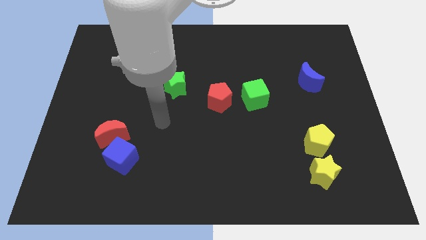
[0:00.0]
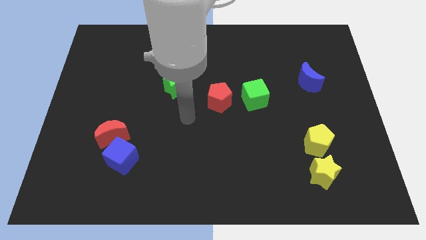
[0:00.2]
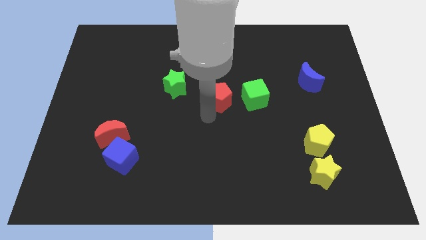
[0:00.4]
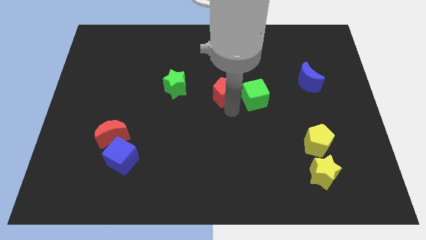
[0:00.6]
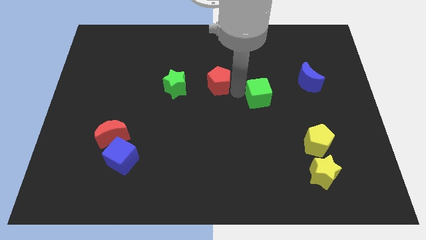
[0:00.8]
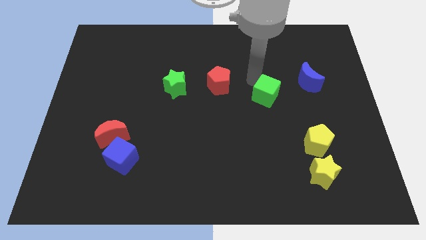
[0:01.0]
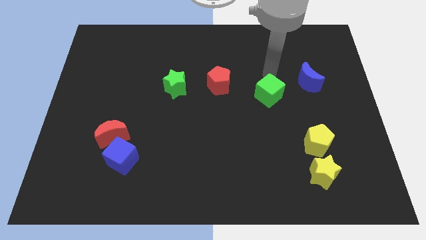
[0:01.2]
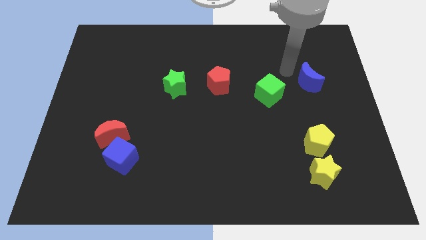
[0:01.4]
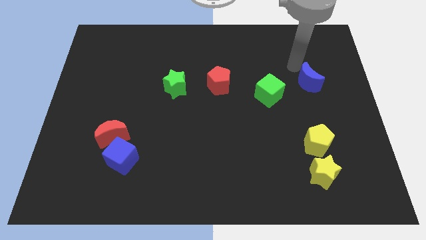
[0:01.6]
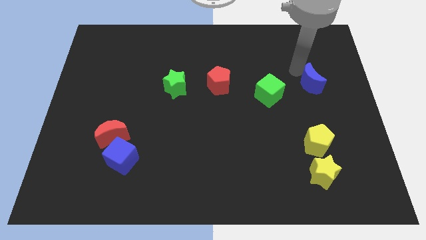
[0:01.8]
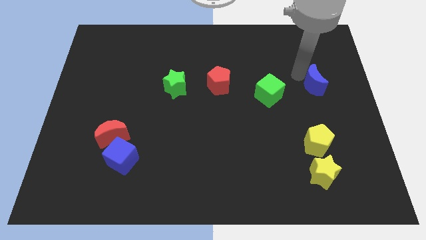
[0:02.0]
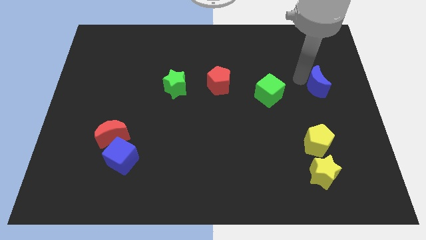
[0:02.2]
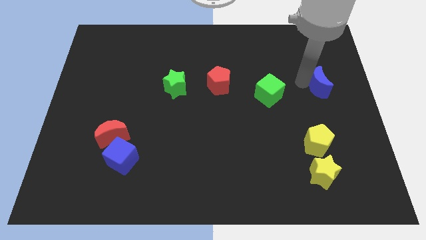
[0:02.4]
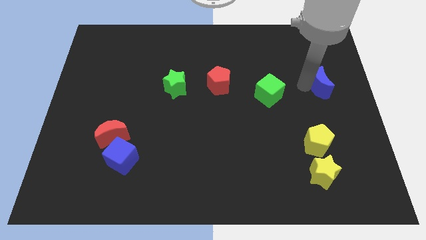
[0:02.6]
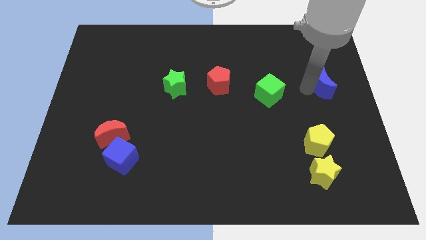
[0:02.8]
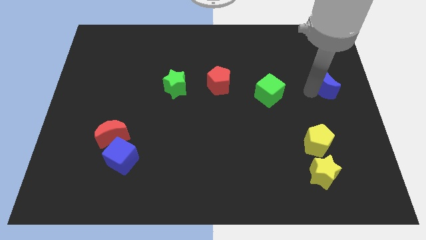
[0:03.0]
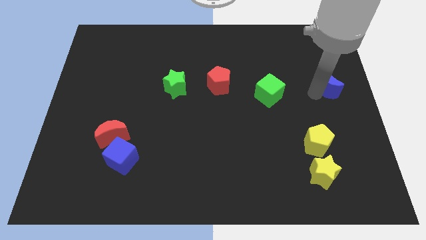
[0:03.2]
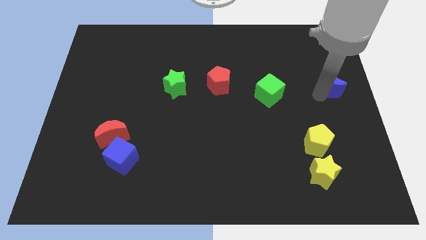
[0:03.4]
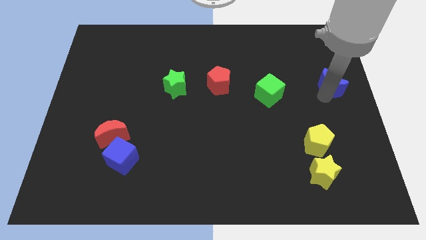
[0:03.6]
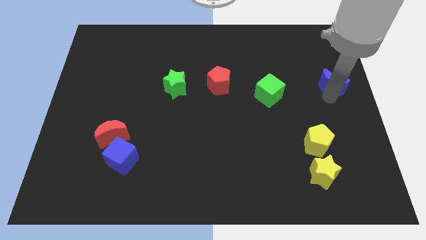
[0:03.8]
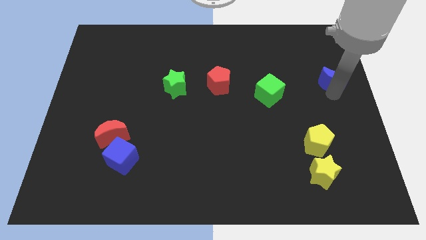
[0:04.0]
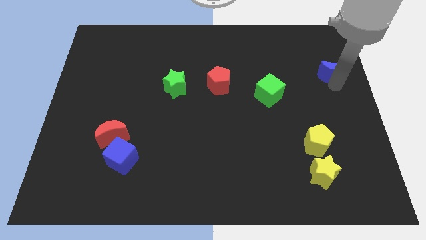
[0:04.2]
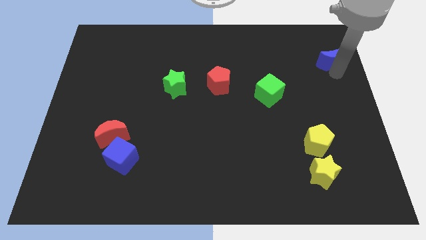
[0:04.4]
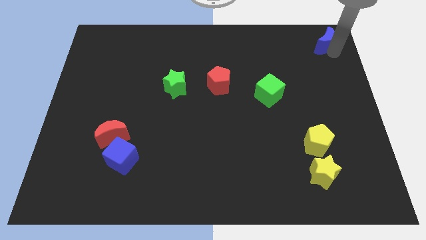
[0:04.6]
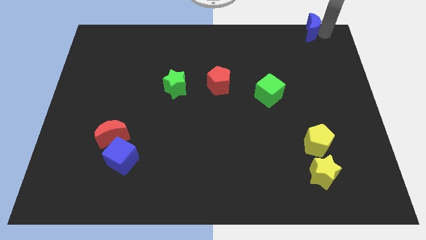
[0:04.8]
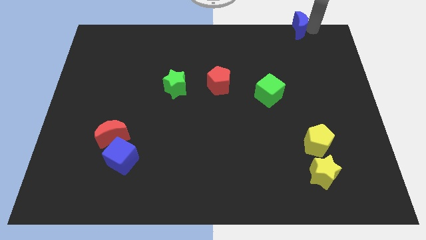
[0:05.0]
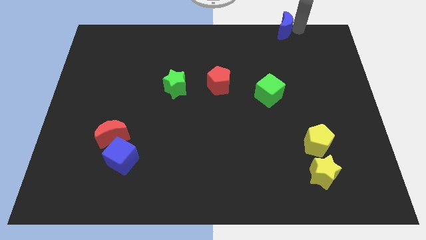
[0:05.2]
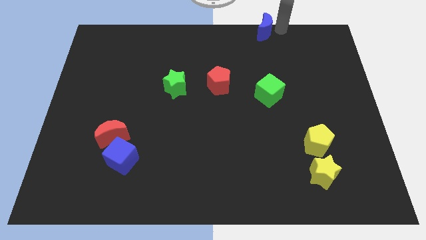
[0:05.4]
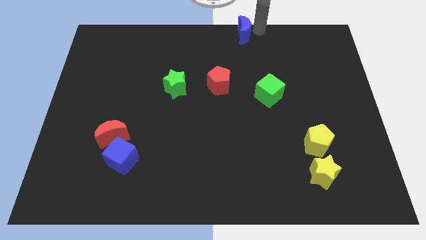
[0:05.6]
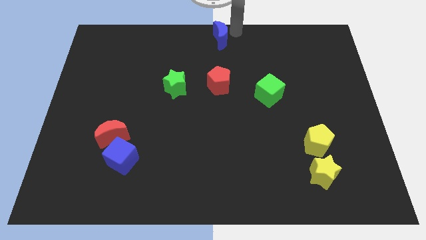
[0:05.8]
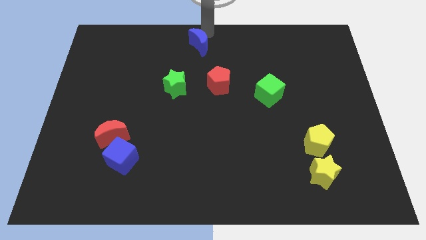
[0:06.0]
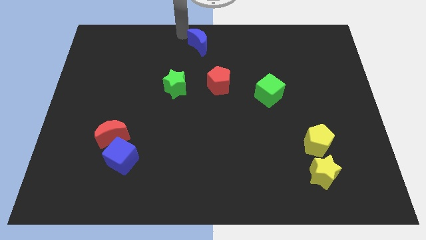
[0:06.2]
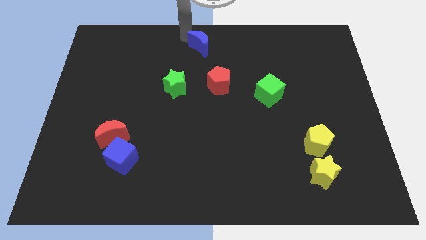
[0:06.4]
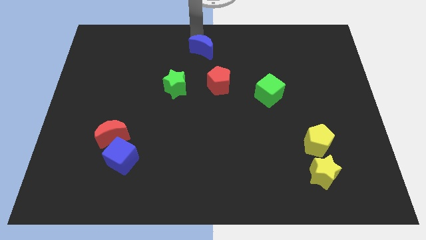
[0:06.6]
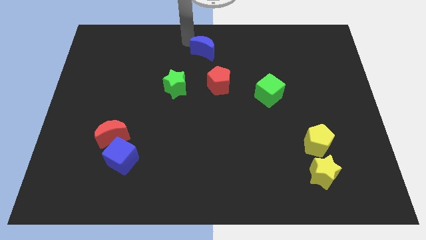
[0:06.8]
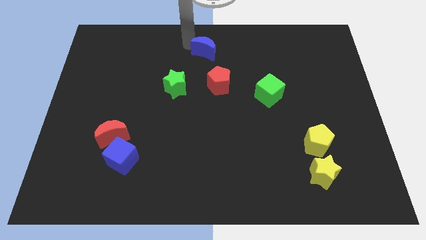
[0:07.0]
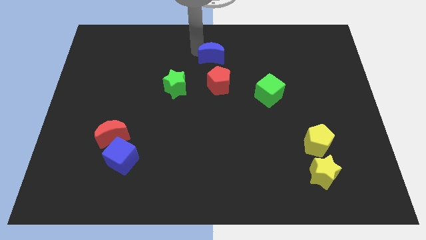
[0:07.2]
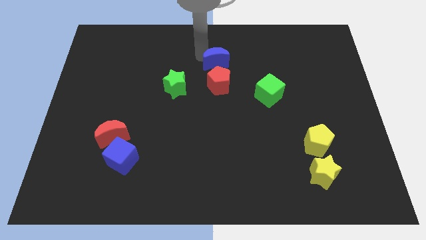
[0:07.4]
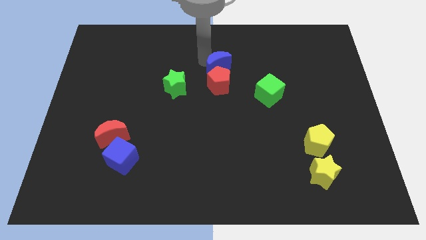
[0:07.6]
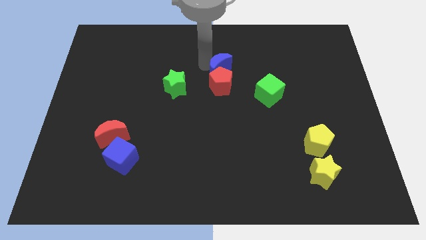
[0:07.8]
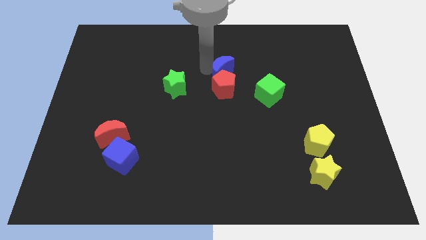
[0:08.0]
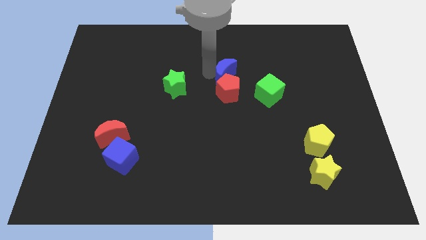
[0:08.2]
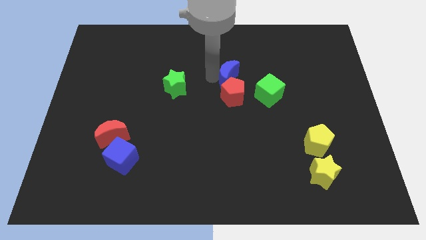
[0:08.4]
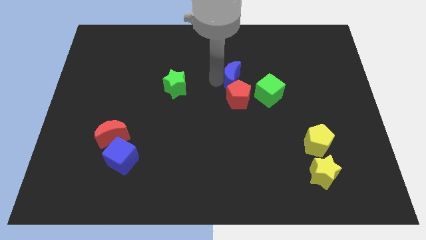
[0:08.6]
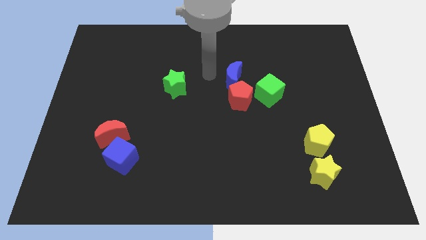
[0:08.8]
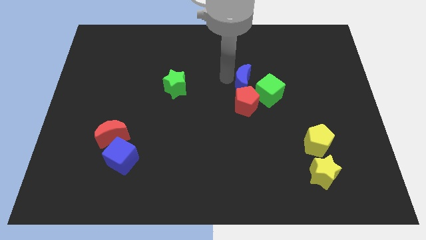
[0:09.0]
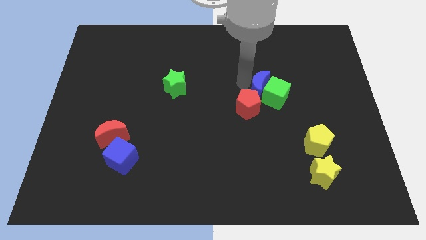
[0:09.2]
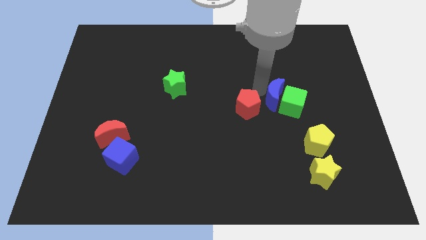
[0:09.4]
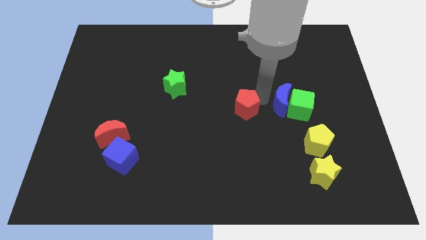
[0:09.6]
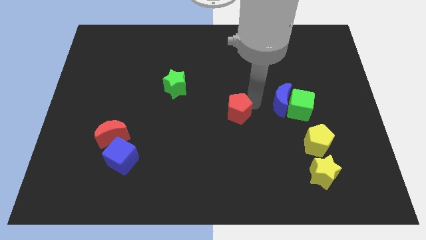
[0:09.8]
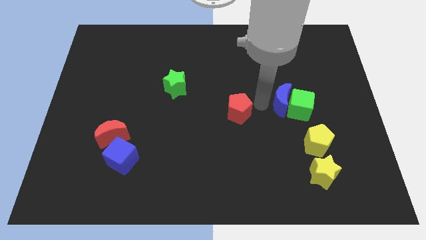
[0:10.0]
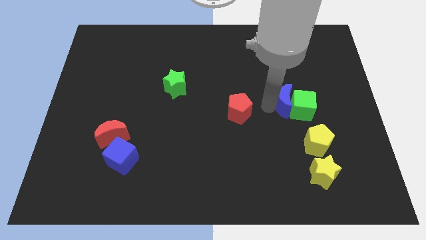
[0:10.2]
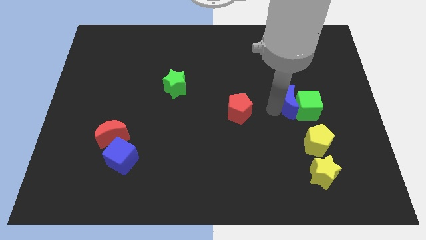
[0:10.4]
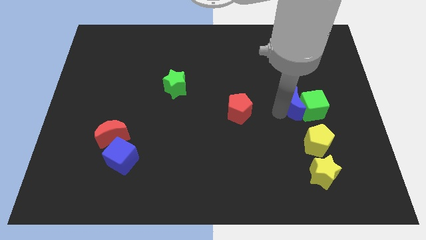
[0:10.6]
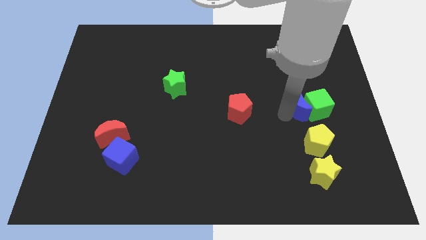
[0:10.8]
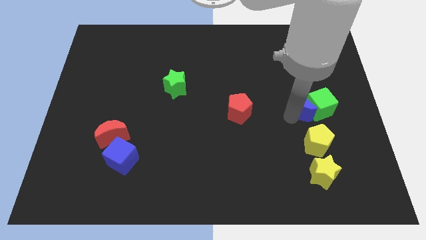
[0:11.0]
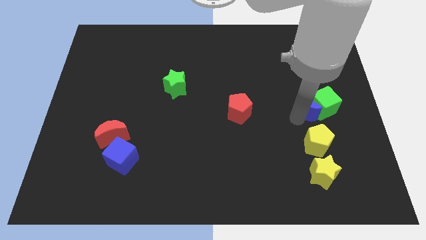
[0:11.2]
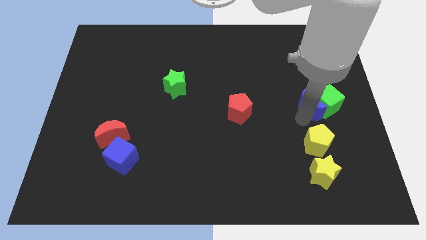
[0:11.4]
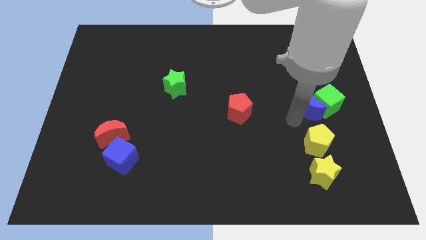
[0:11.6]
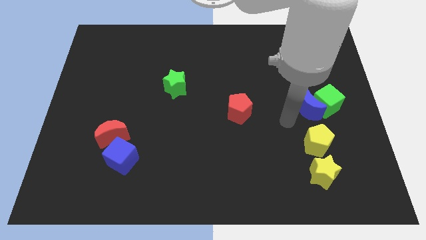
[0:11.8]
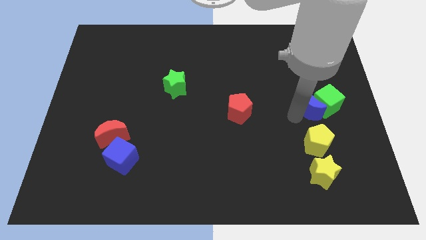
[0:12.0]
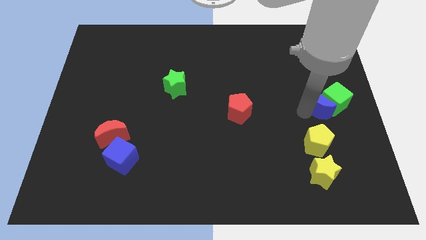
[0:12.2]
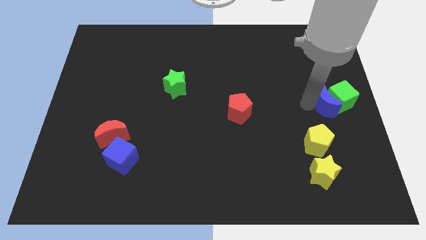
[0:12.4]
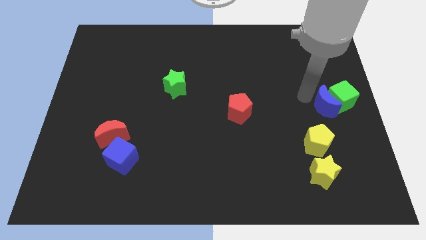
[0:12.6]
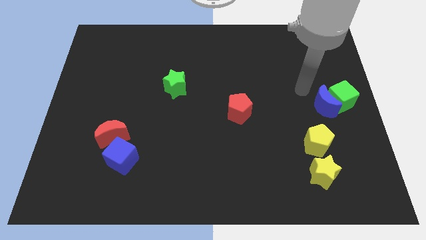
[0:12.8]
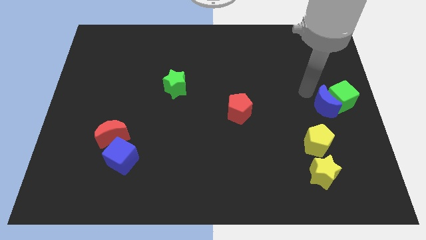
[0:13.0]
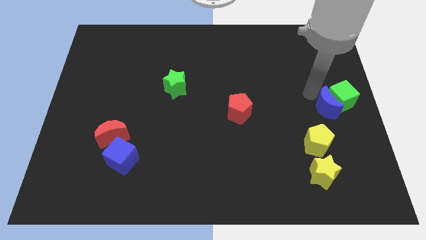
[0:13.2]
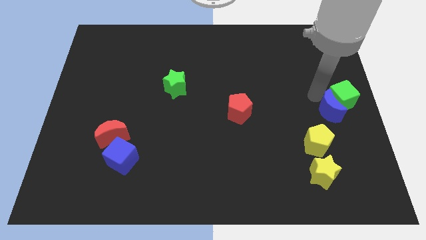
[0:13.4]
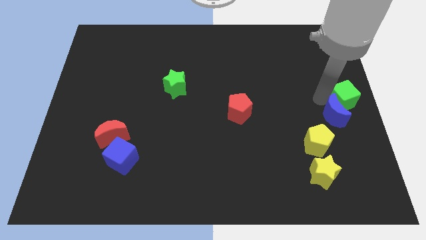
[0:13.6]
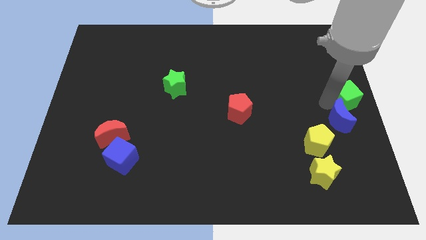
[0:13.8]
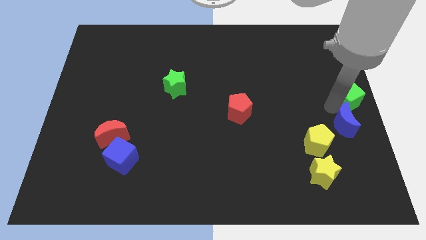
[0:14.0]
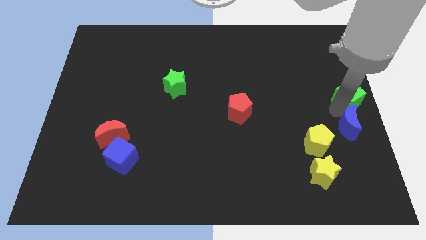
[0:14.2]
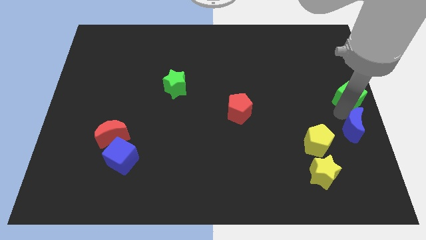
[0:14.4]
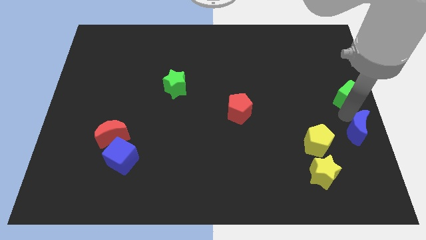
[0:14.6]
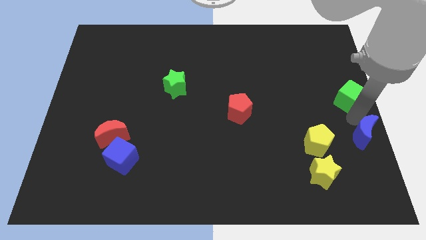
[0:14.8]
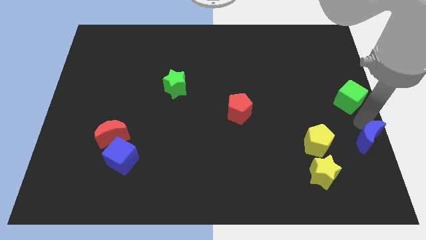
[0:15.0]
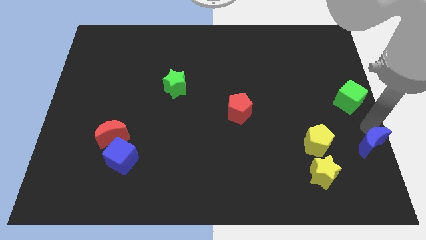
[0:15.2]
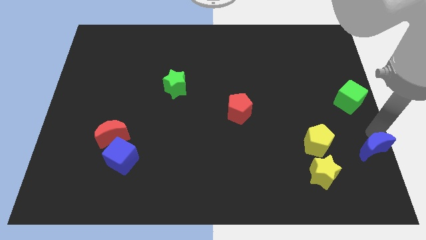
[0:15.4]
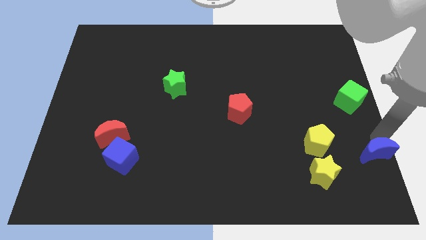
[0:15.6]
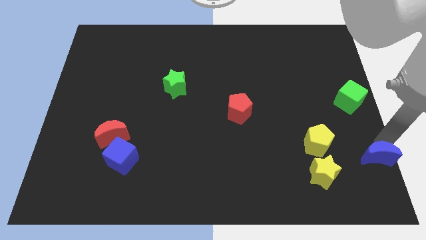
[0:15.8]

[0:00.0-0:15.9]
move the blue moon to the bottom right
